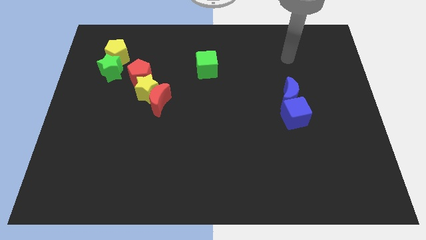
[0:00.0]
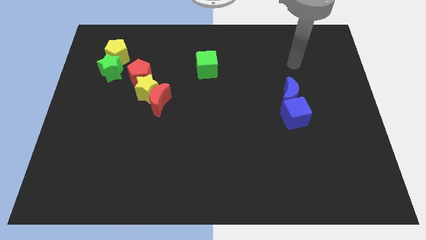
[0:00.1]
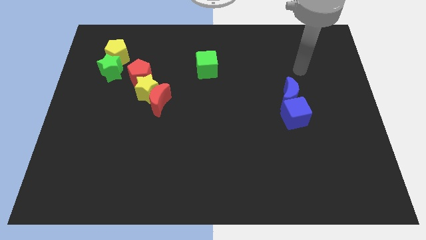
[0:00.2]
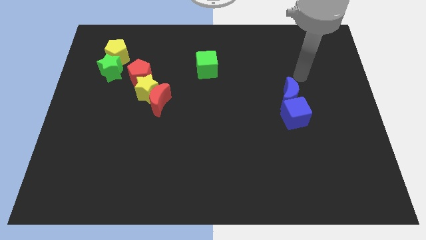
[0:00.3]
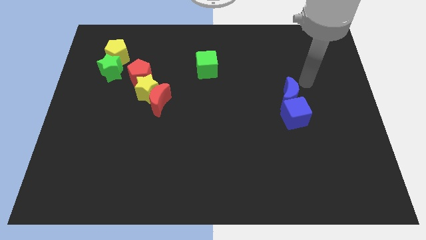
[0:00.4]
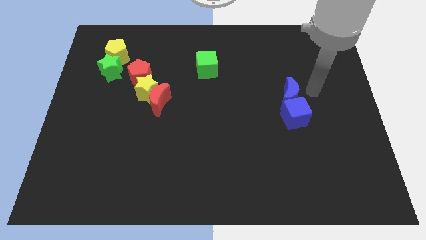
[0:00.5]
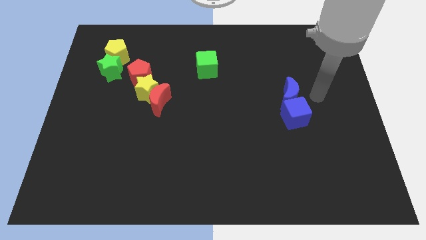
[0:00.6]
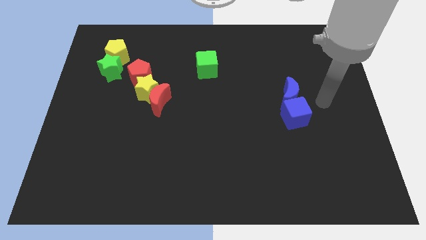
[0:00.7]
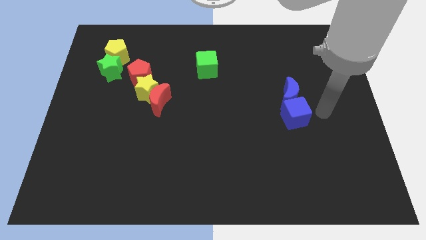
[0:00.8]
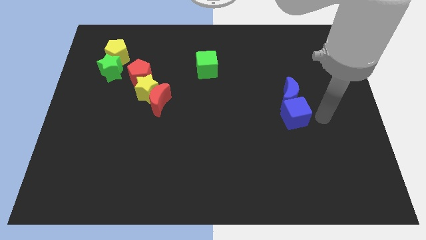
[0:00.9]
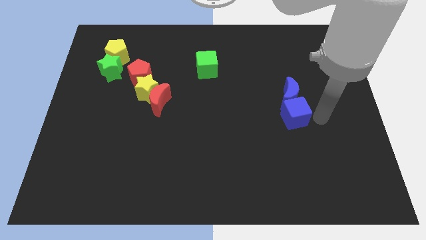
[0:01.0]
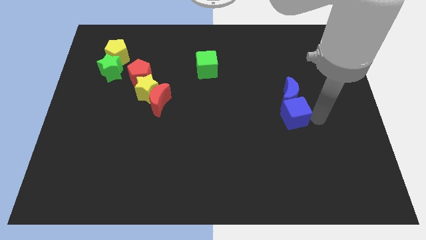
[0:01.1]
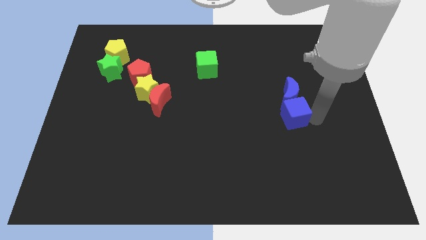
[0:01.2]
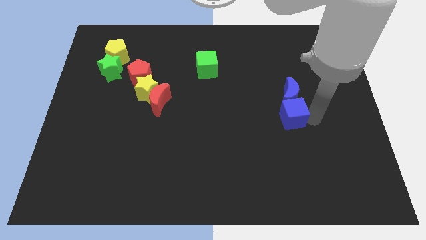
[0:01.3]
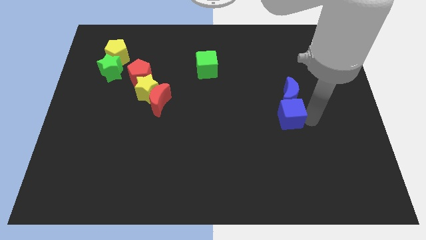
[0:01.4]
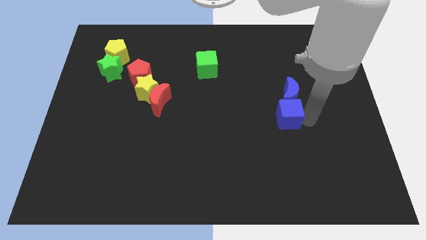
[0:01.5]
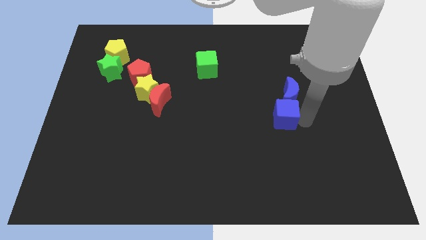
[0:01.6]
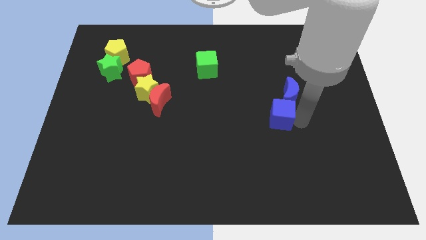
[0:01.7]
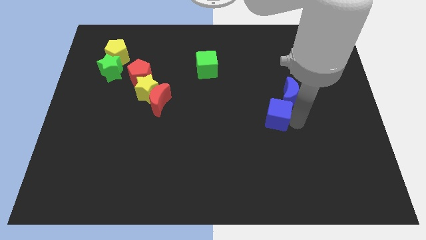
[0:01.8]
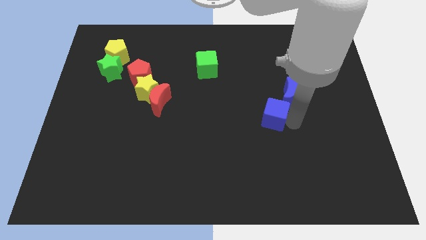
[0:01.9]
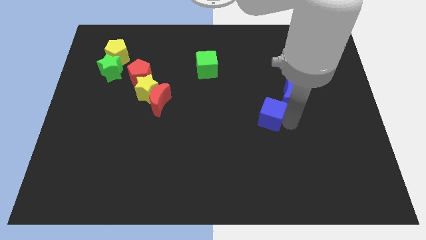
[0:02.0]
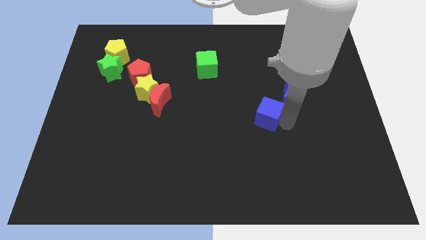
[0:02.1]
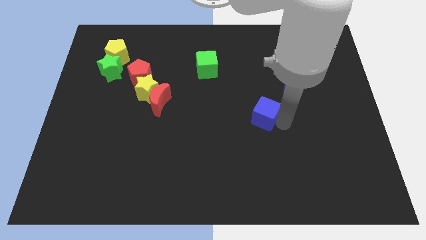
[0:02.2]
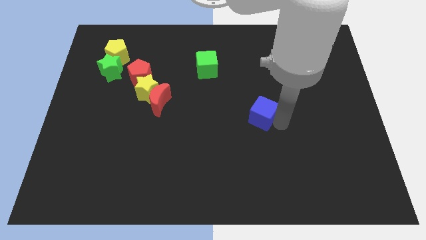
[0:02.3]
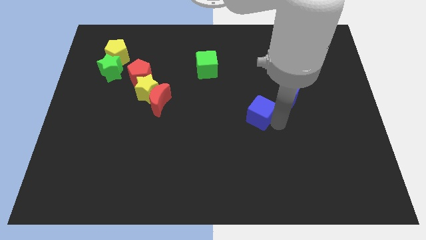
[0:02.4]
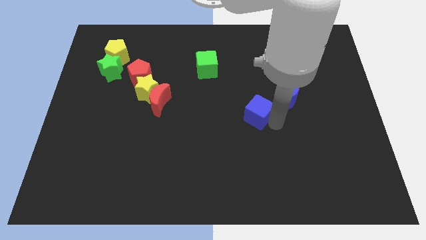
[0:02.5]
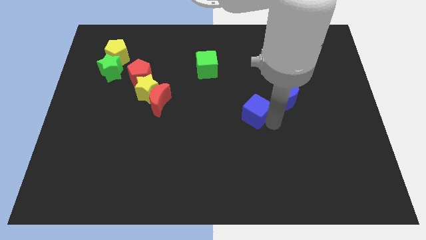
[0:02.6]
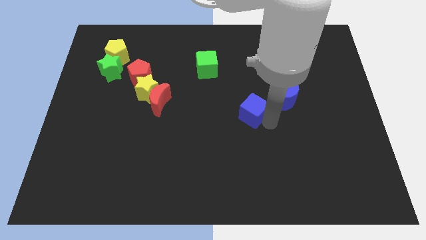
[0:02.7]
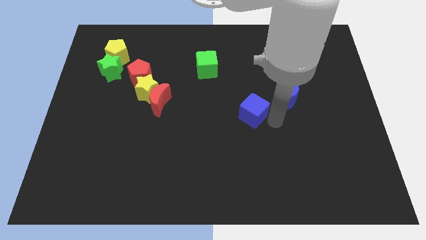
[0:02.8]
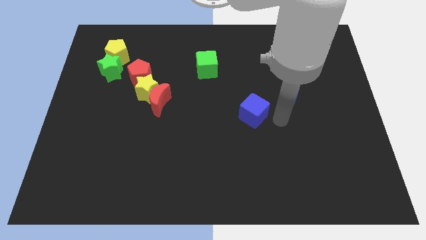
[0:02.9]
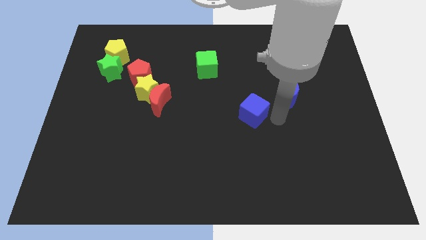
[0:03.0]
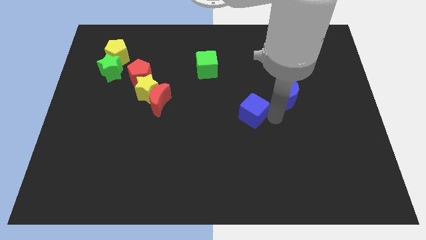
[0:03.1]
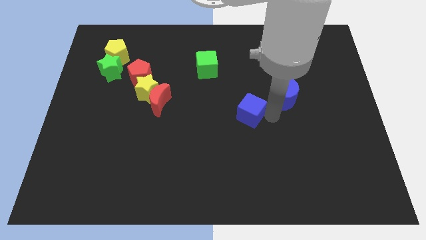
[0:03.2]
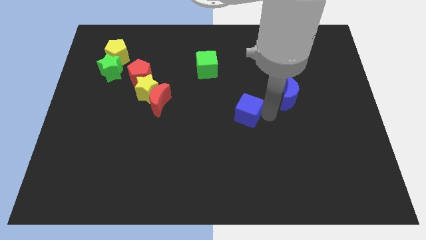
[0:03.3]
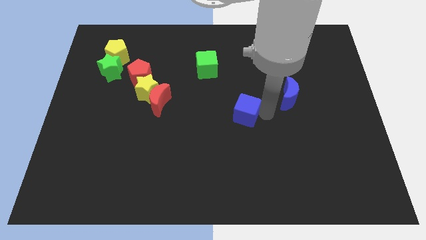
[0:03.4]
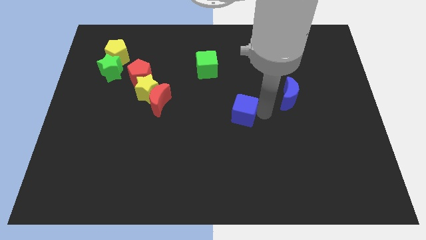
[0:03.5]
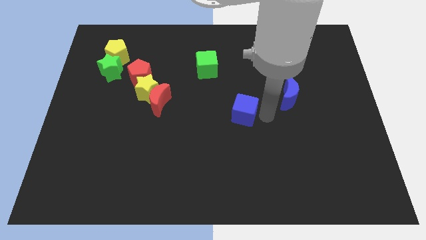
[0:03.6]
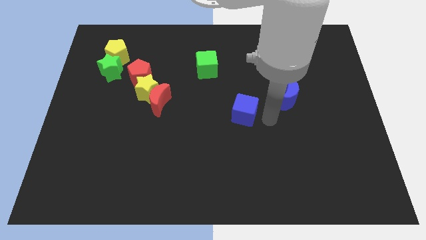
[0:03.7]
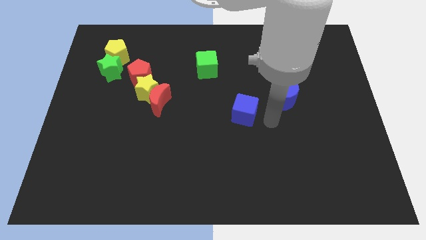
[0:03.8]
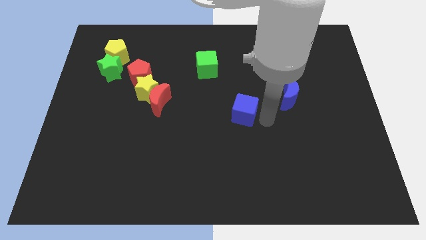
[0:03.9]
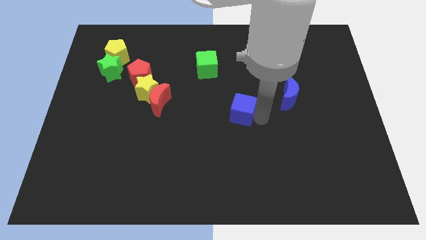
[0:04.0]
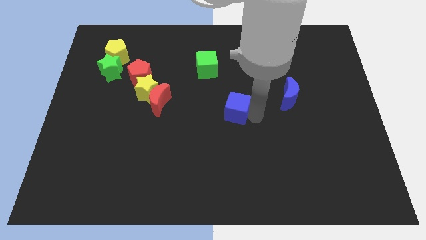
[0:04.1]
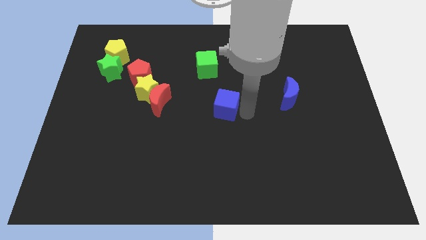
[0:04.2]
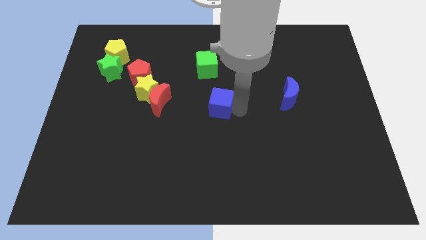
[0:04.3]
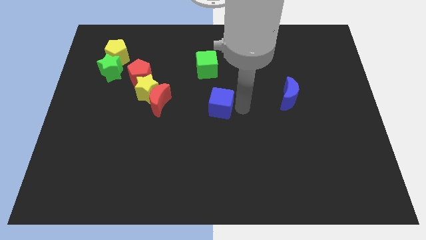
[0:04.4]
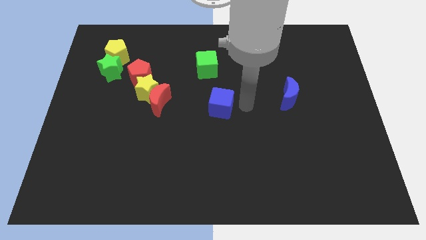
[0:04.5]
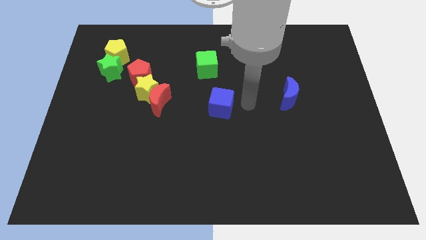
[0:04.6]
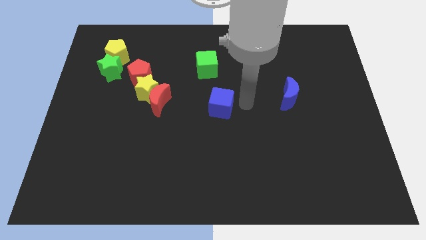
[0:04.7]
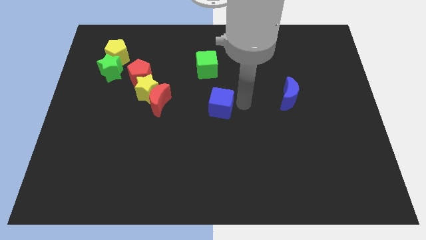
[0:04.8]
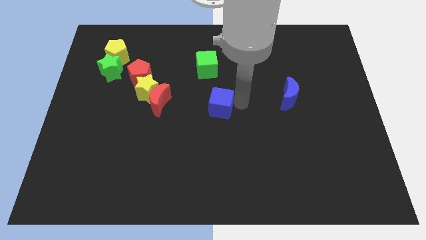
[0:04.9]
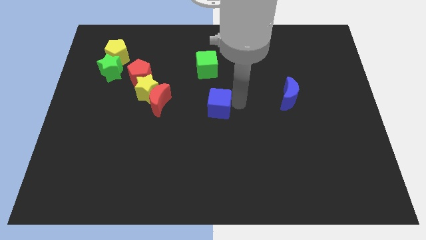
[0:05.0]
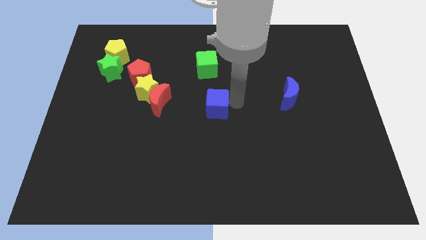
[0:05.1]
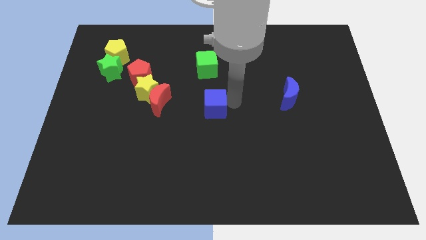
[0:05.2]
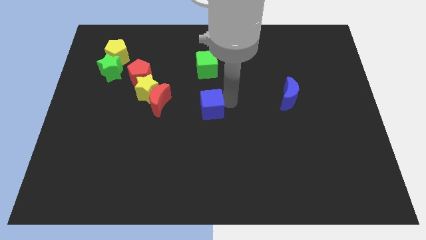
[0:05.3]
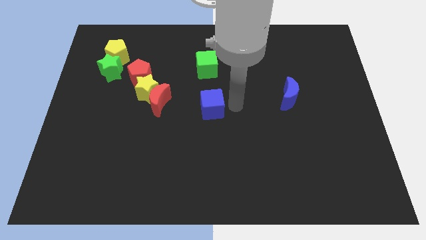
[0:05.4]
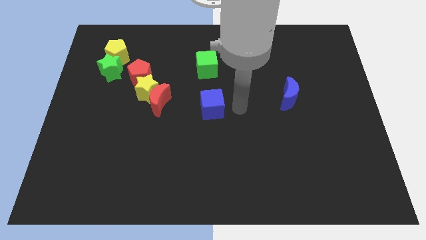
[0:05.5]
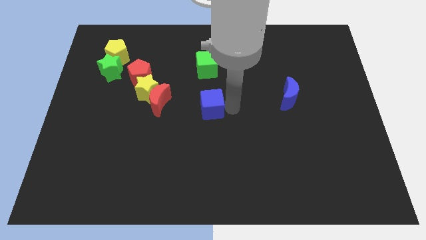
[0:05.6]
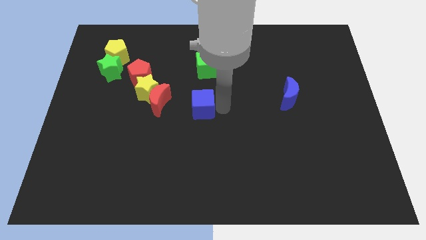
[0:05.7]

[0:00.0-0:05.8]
move the blue cube left

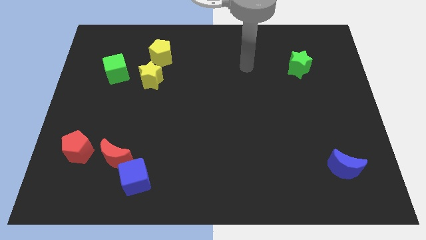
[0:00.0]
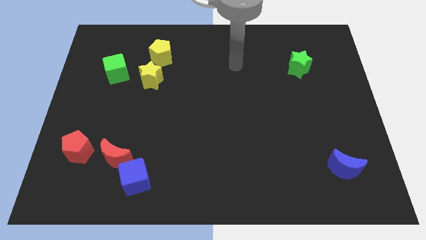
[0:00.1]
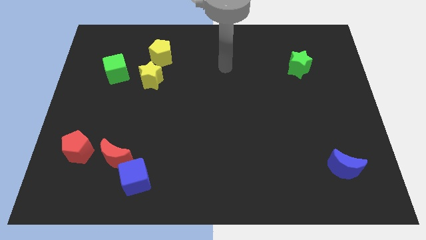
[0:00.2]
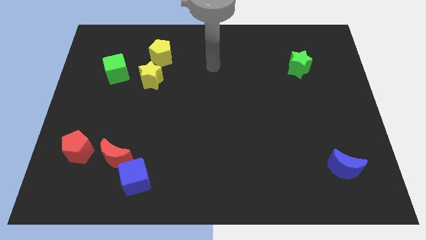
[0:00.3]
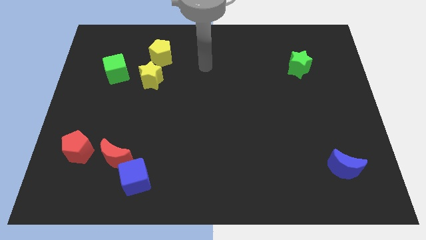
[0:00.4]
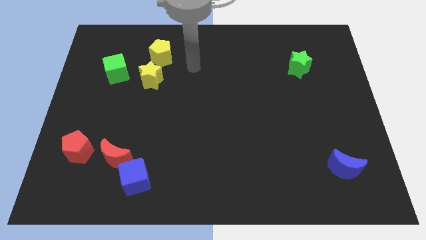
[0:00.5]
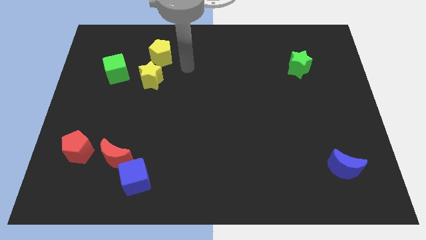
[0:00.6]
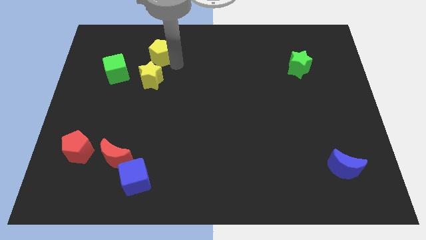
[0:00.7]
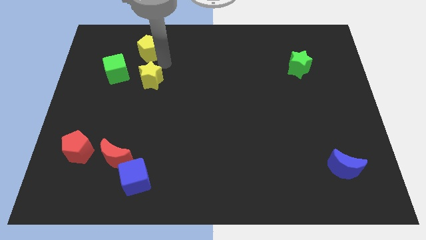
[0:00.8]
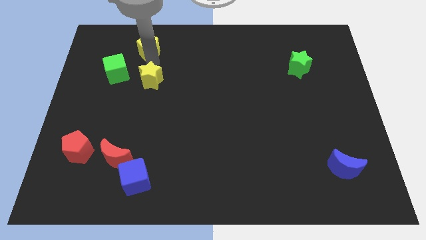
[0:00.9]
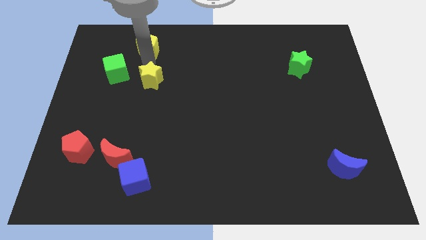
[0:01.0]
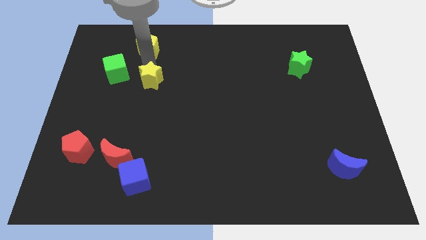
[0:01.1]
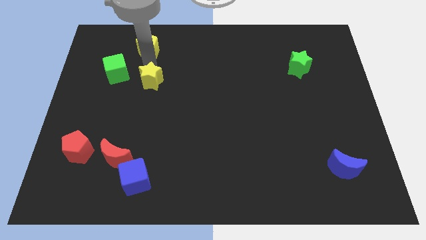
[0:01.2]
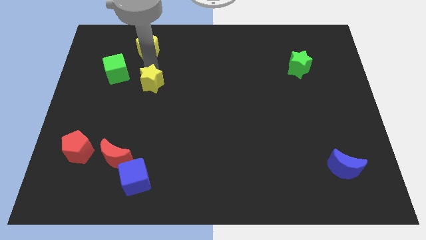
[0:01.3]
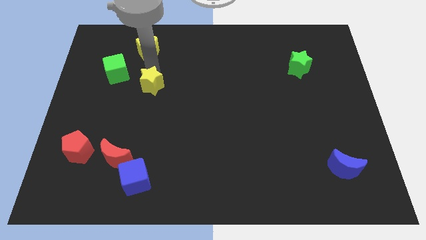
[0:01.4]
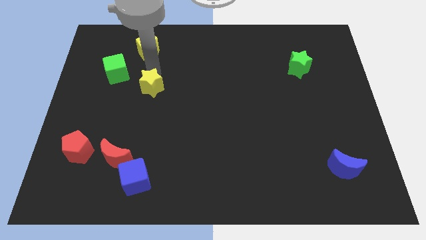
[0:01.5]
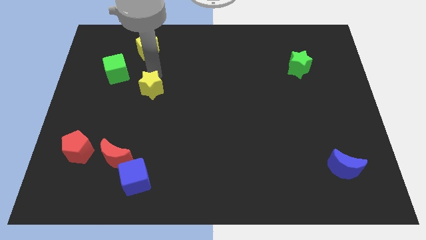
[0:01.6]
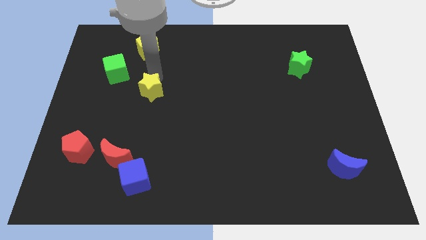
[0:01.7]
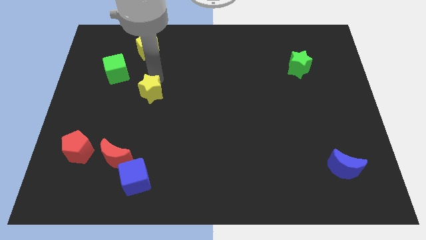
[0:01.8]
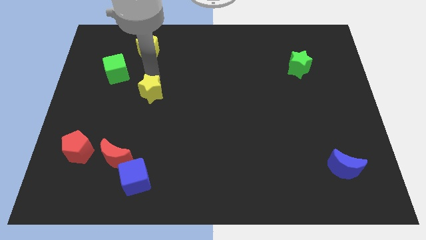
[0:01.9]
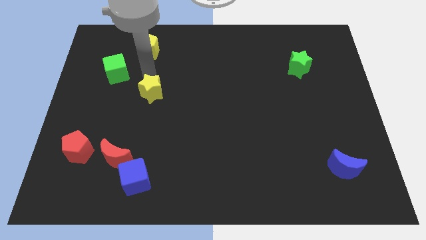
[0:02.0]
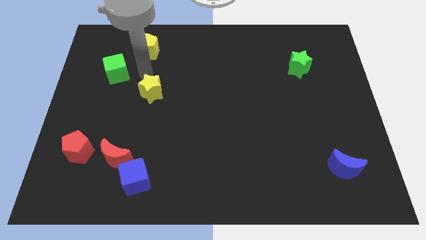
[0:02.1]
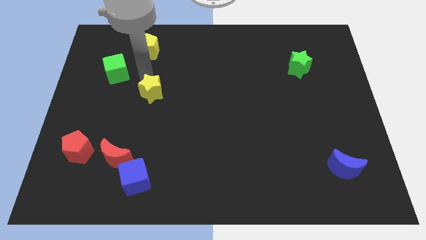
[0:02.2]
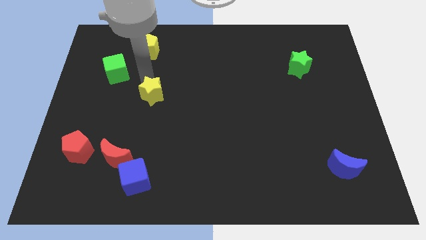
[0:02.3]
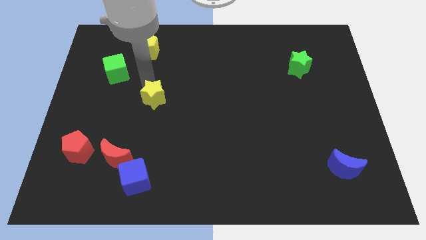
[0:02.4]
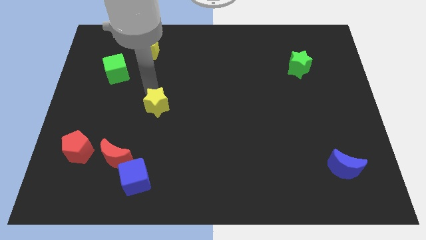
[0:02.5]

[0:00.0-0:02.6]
move the yellow star a bit down
